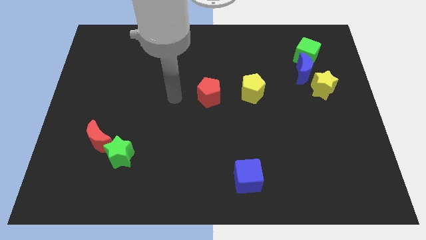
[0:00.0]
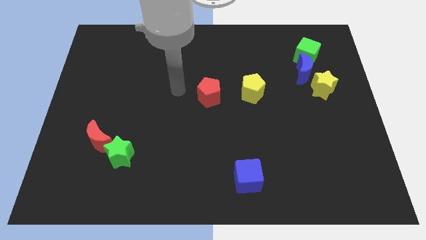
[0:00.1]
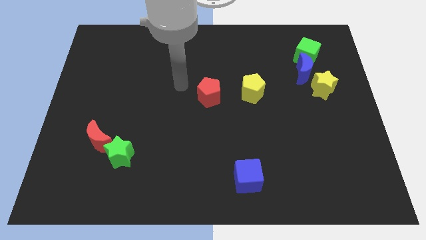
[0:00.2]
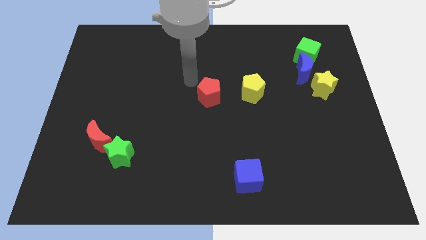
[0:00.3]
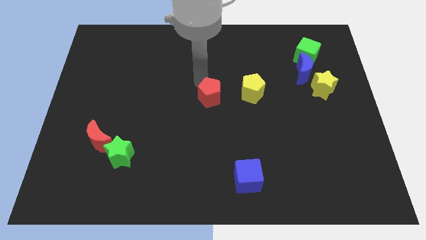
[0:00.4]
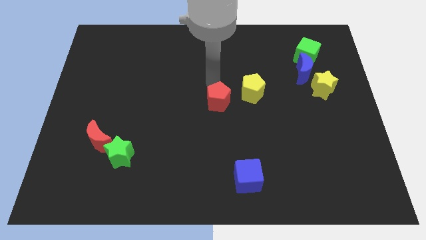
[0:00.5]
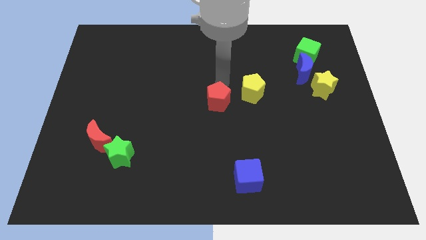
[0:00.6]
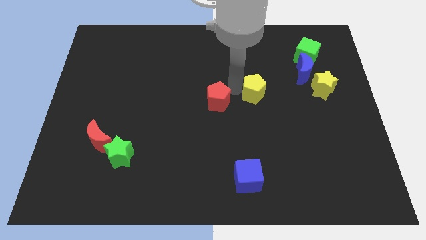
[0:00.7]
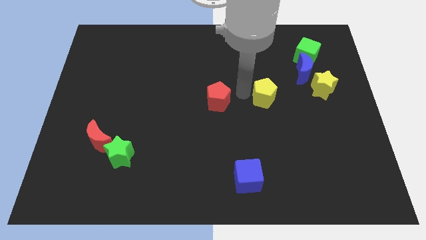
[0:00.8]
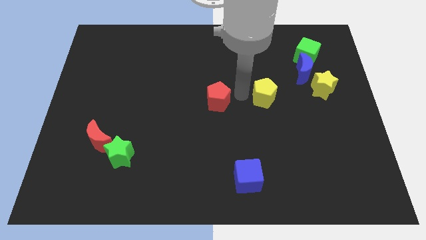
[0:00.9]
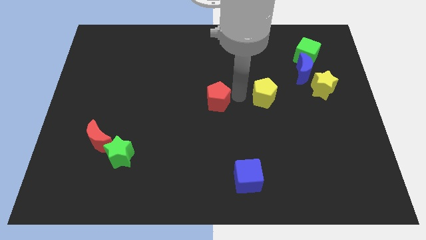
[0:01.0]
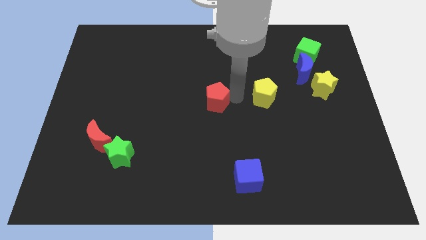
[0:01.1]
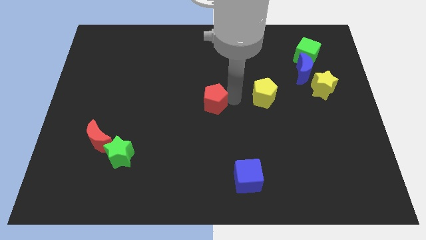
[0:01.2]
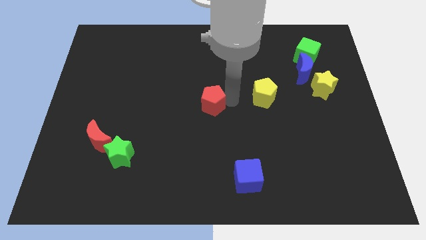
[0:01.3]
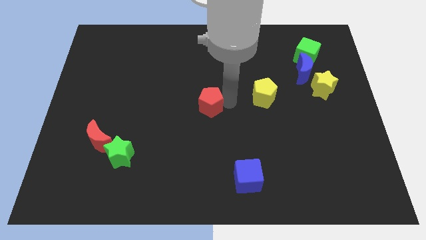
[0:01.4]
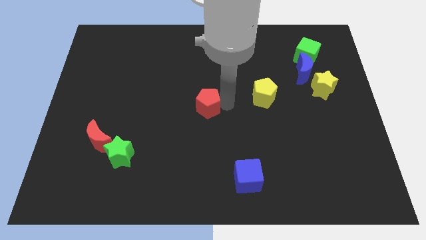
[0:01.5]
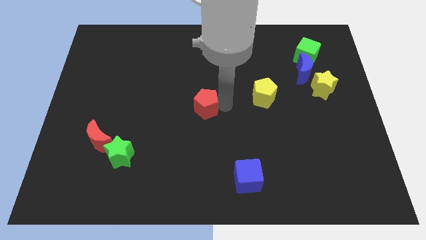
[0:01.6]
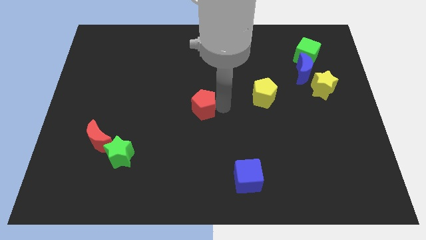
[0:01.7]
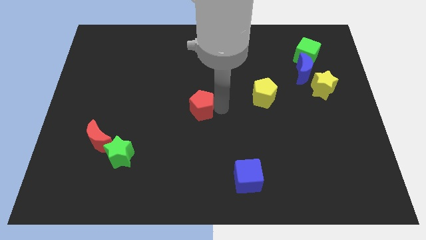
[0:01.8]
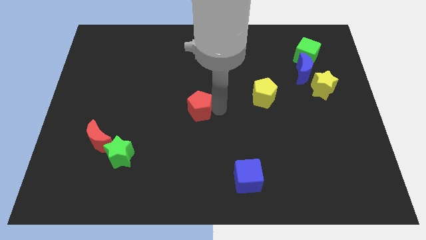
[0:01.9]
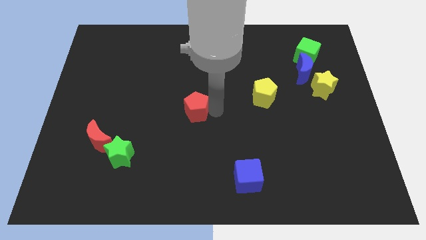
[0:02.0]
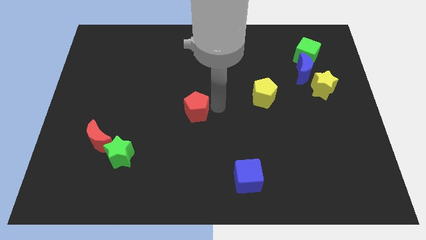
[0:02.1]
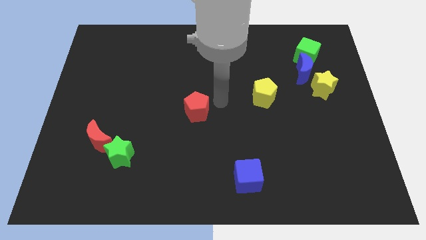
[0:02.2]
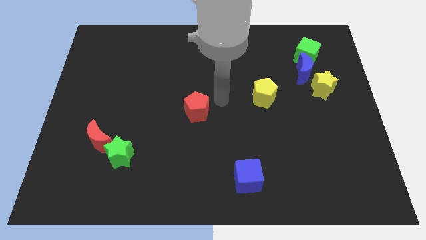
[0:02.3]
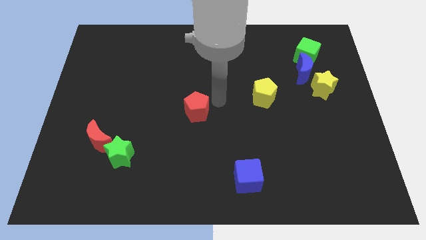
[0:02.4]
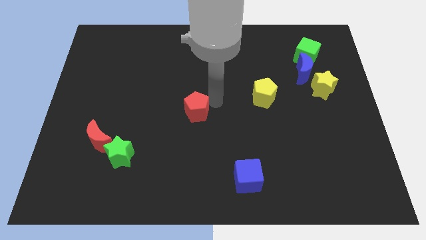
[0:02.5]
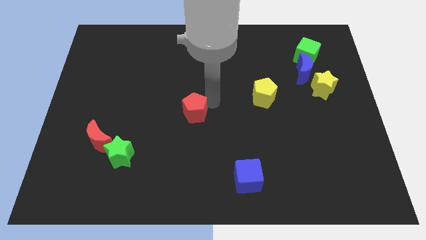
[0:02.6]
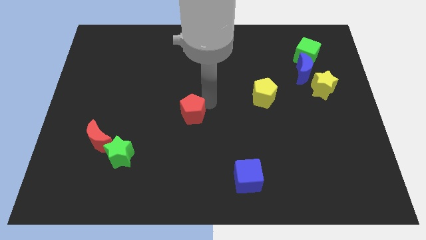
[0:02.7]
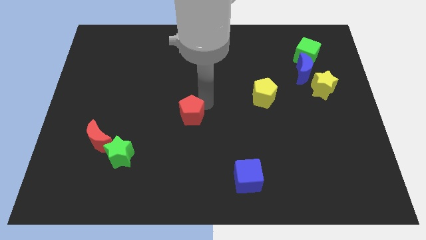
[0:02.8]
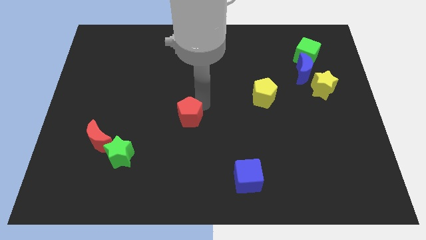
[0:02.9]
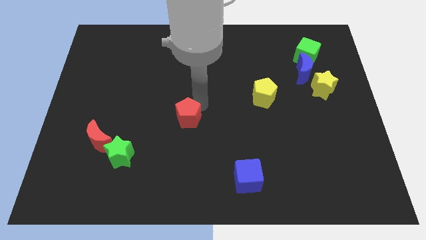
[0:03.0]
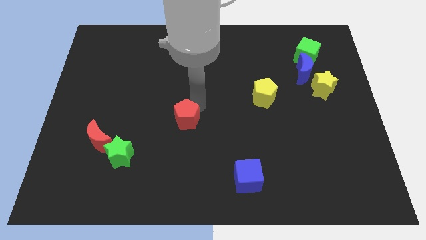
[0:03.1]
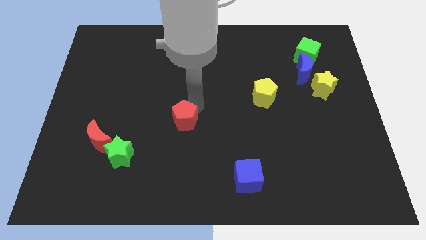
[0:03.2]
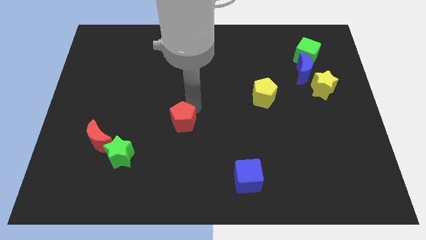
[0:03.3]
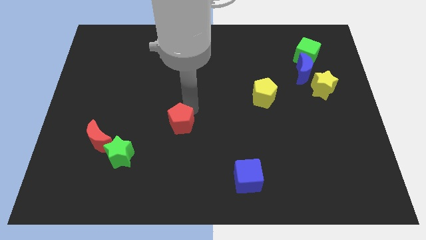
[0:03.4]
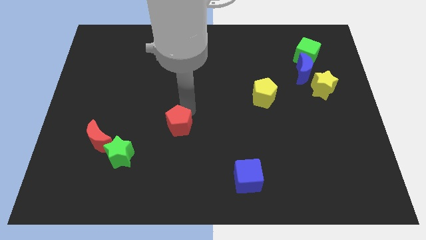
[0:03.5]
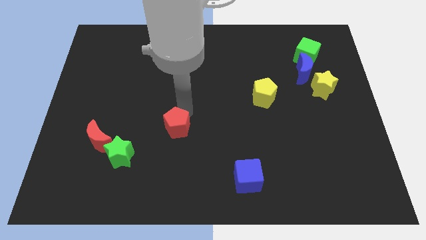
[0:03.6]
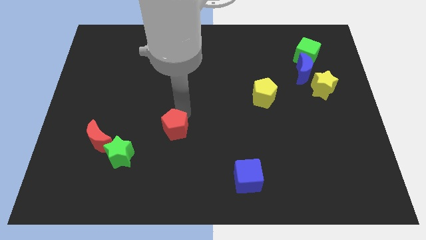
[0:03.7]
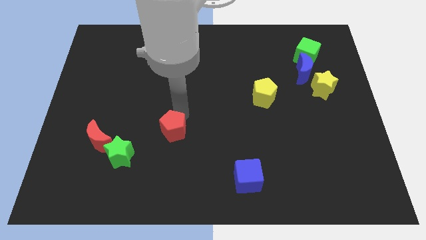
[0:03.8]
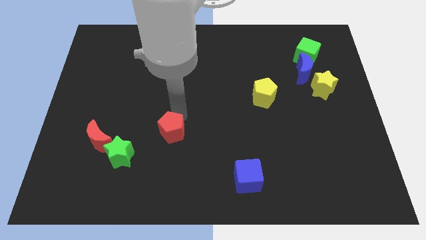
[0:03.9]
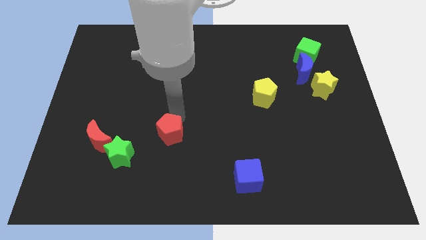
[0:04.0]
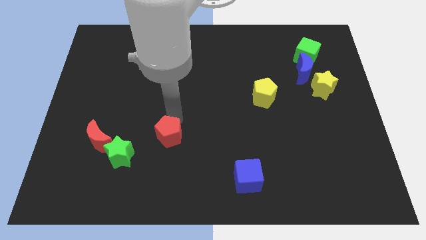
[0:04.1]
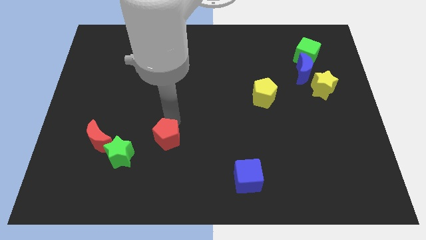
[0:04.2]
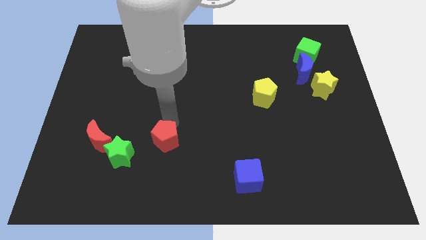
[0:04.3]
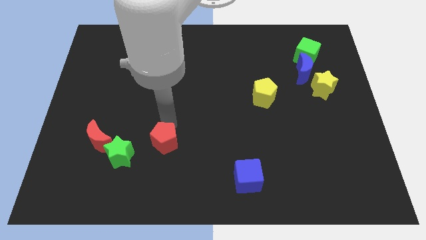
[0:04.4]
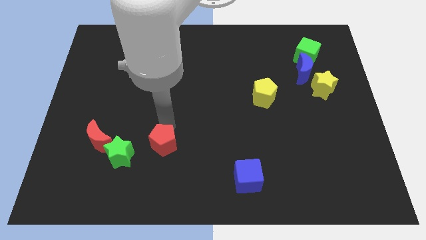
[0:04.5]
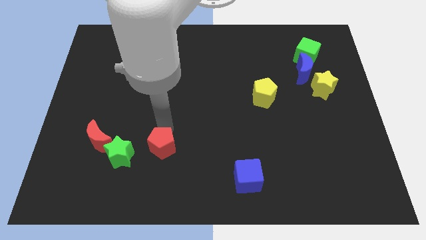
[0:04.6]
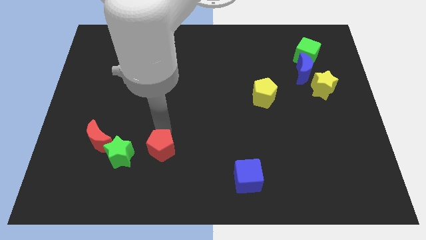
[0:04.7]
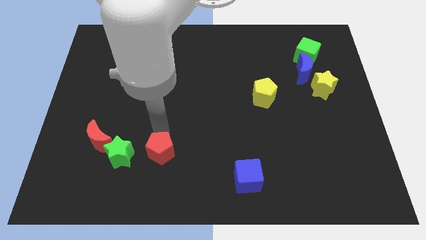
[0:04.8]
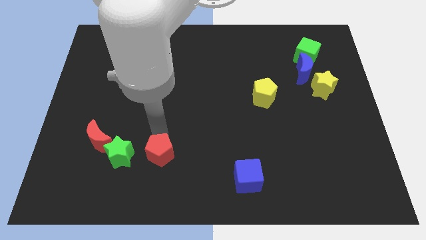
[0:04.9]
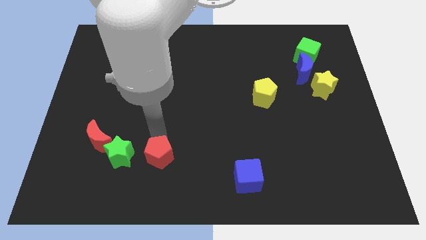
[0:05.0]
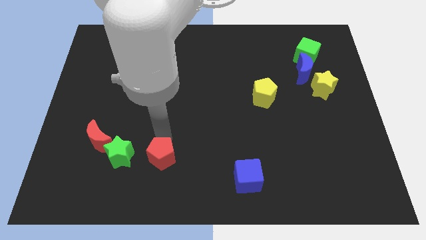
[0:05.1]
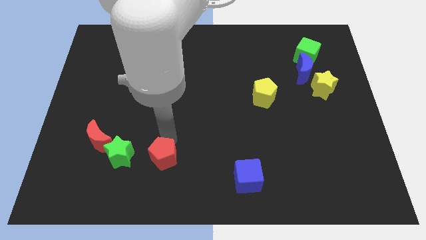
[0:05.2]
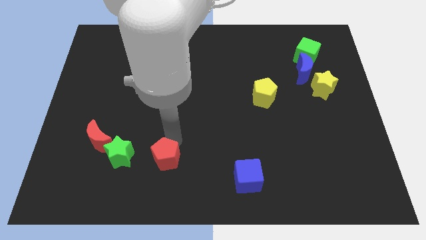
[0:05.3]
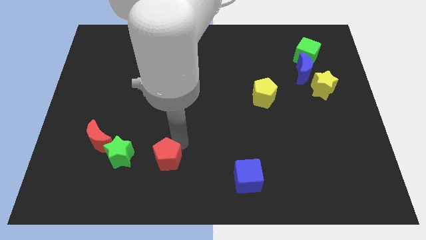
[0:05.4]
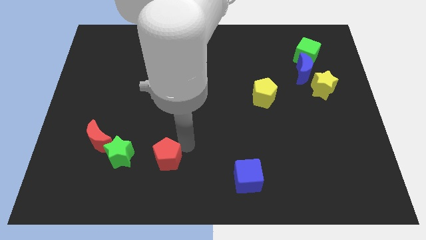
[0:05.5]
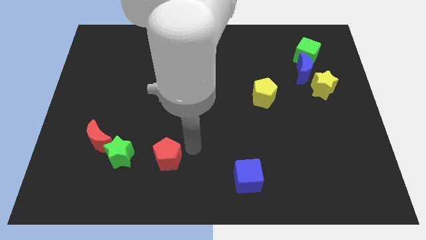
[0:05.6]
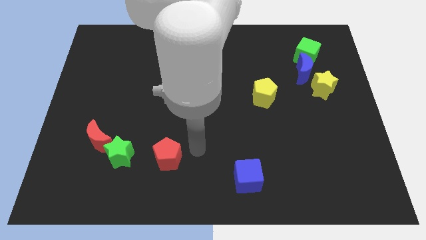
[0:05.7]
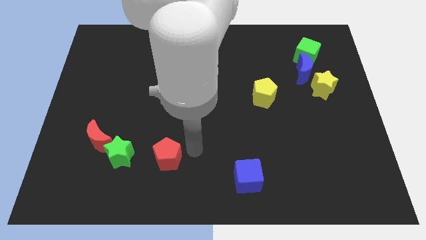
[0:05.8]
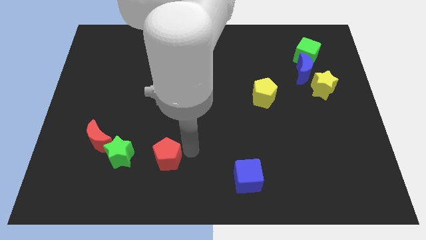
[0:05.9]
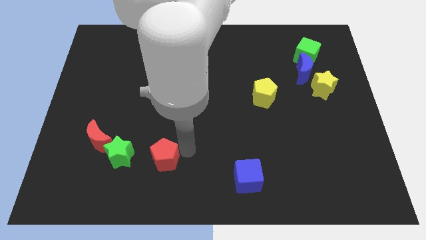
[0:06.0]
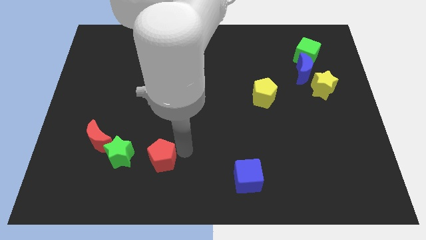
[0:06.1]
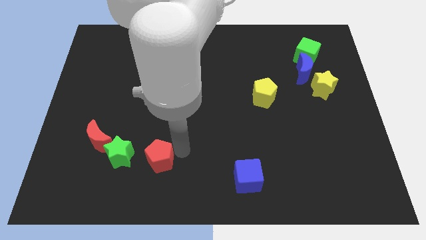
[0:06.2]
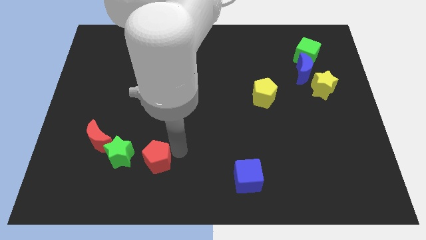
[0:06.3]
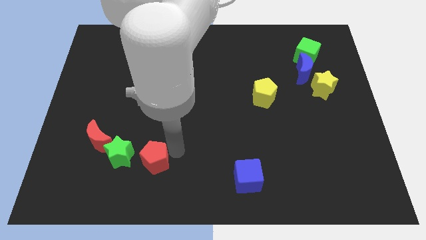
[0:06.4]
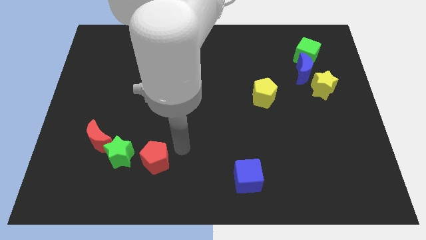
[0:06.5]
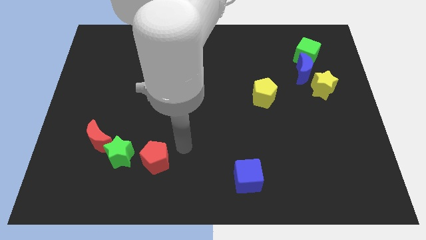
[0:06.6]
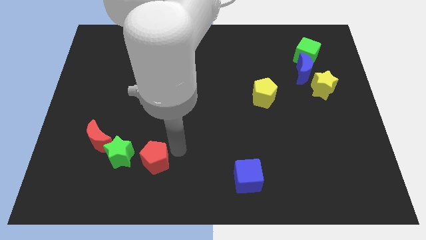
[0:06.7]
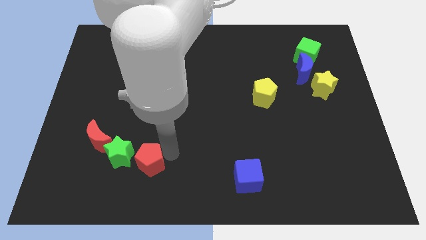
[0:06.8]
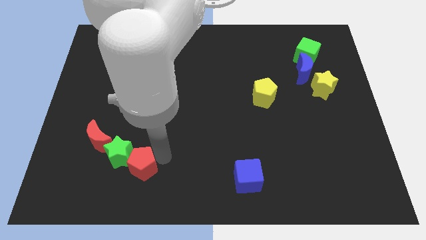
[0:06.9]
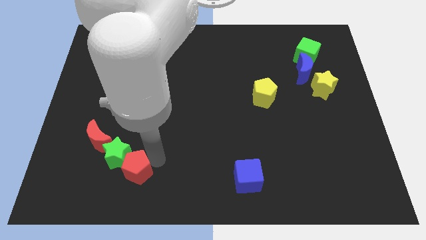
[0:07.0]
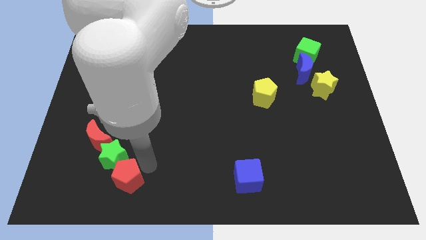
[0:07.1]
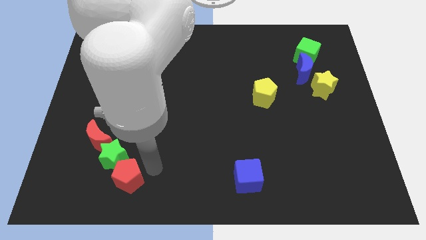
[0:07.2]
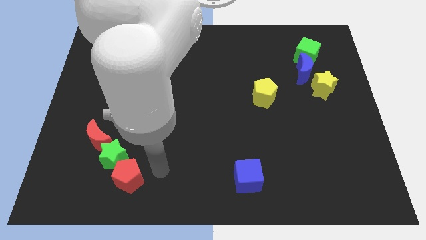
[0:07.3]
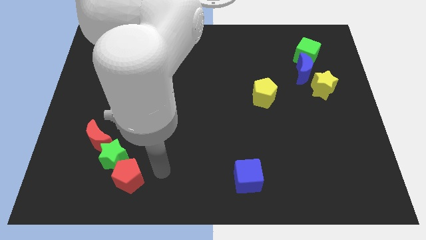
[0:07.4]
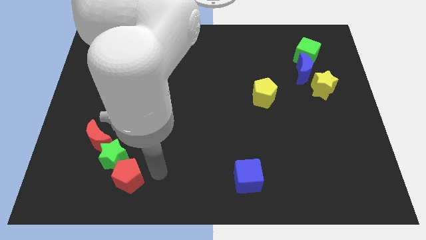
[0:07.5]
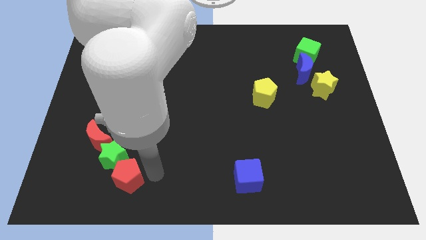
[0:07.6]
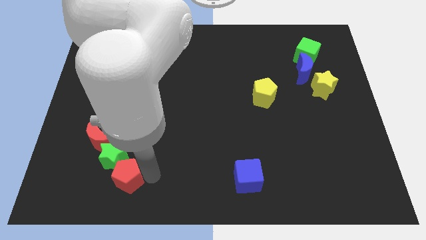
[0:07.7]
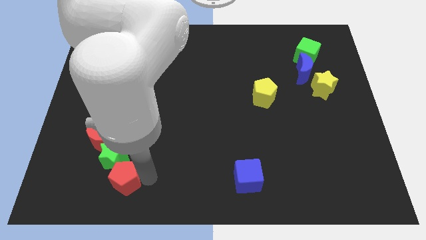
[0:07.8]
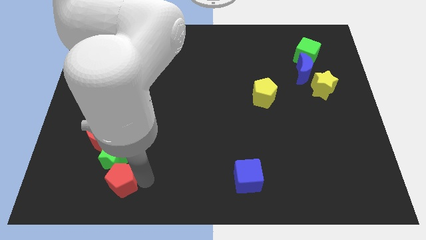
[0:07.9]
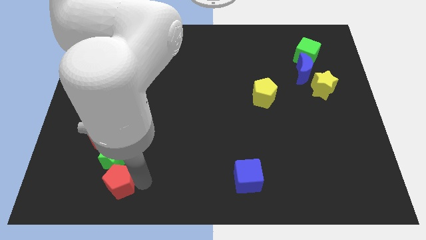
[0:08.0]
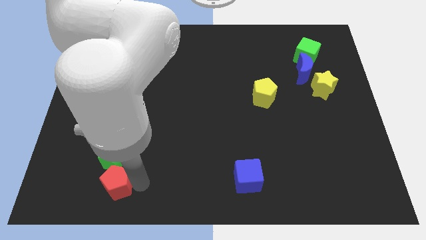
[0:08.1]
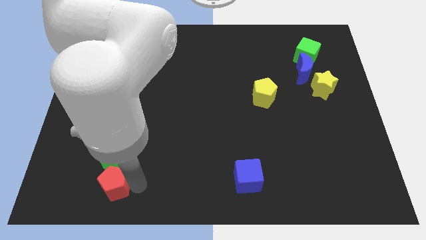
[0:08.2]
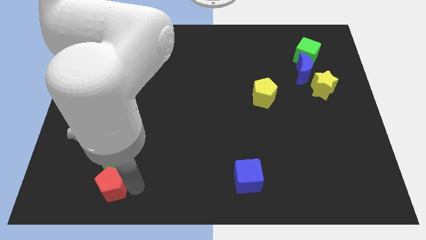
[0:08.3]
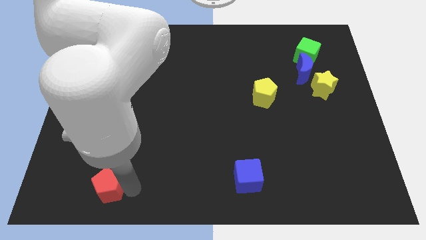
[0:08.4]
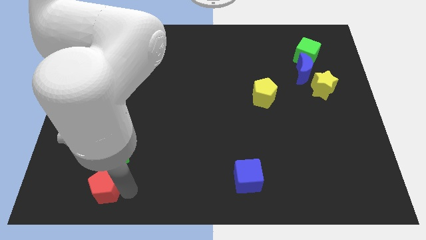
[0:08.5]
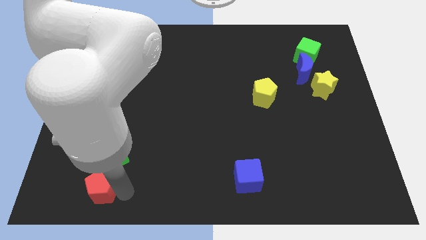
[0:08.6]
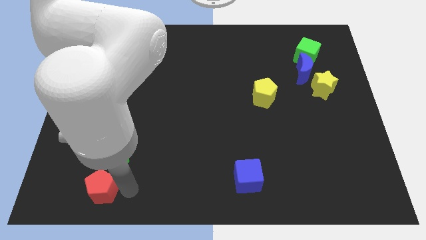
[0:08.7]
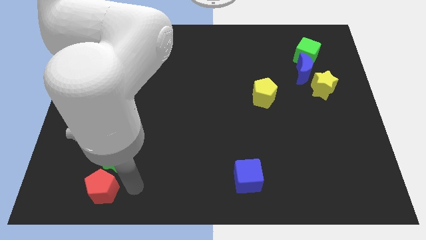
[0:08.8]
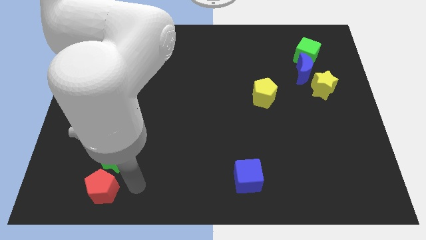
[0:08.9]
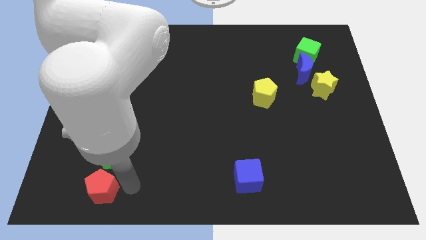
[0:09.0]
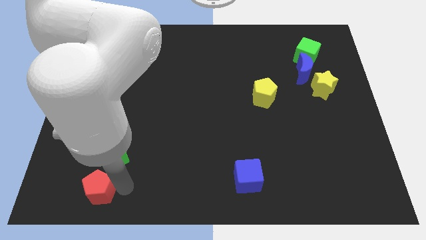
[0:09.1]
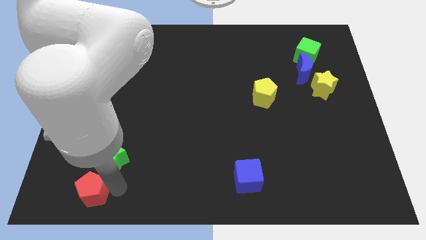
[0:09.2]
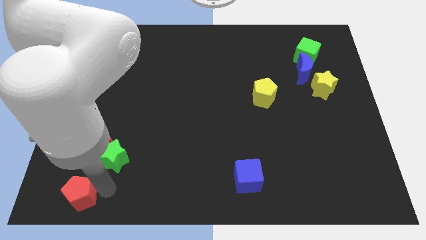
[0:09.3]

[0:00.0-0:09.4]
slide the red pentagon to the lower left corner
